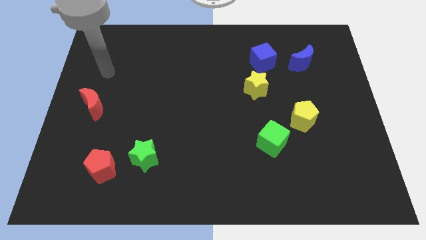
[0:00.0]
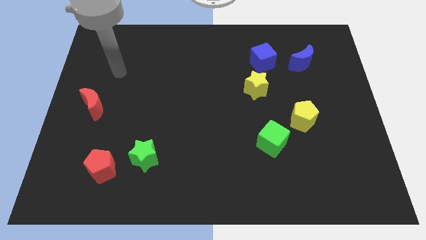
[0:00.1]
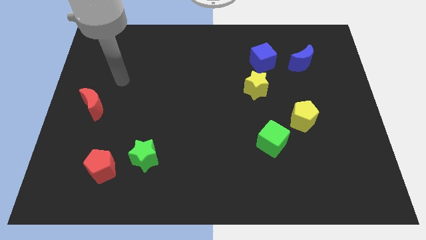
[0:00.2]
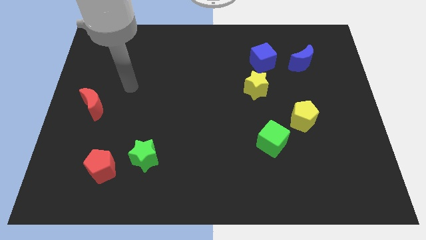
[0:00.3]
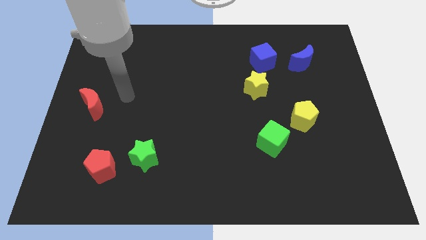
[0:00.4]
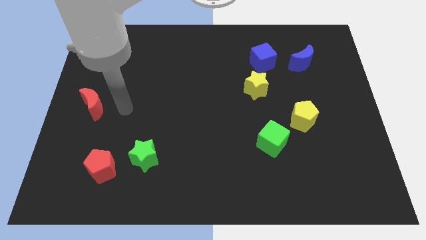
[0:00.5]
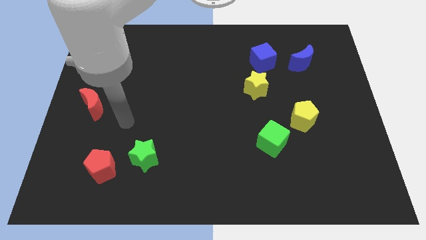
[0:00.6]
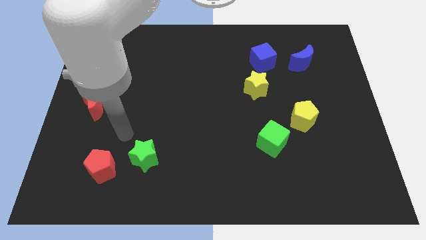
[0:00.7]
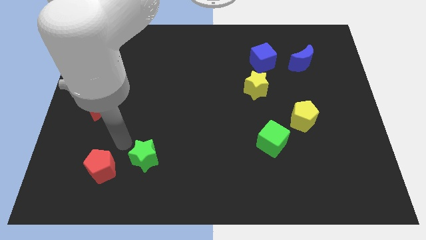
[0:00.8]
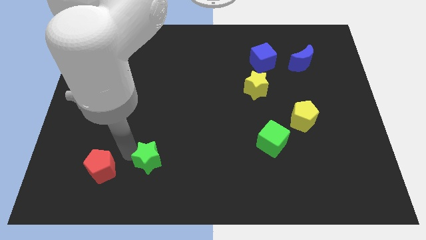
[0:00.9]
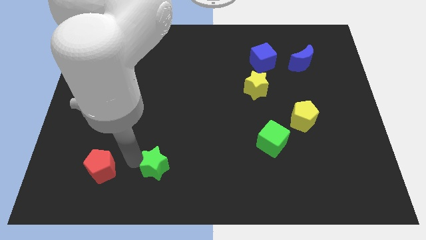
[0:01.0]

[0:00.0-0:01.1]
move the red pentagon away from the green star

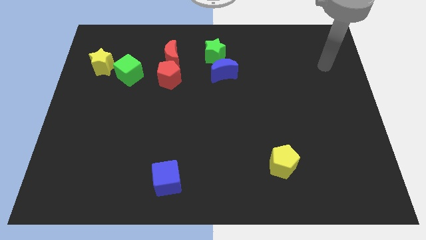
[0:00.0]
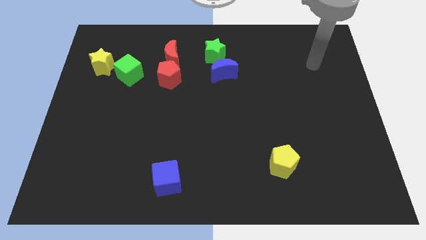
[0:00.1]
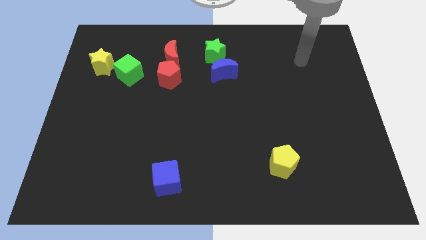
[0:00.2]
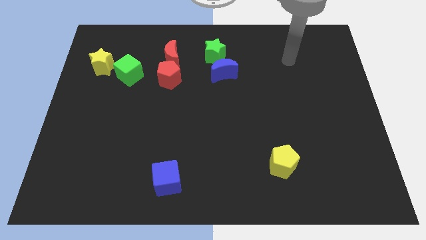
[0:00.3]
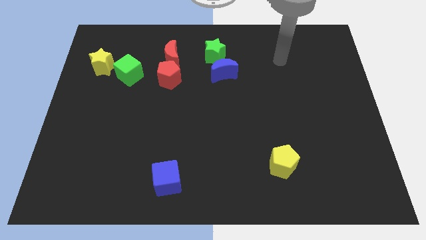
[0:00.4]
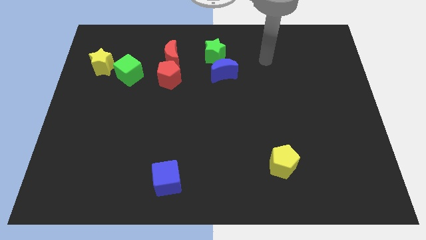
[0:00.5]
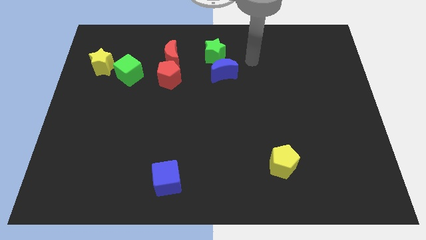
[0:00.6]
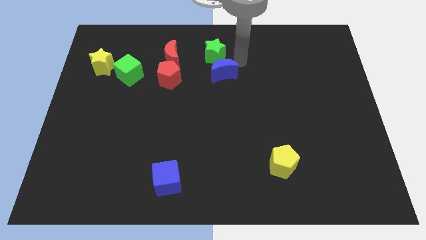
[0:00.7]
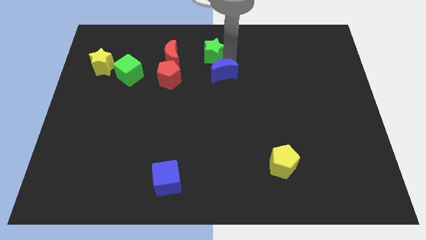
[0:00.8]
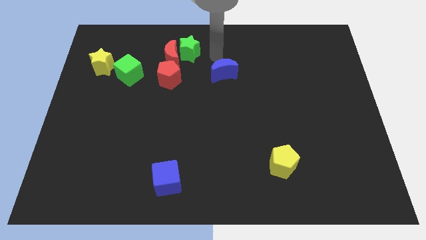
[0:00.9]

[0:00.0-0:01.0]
separate the blue moon from the green star

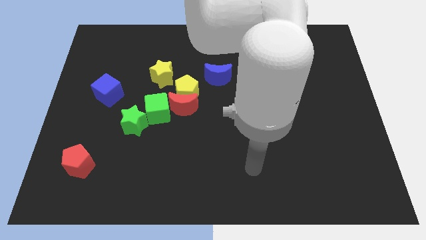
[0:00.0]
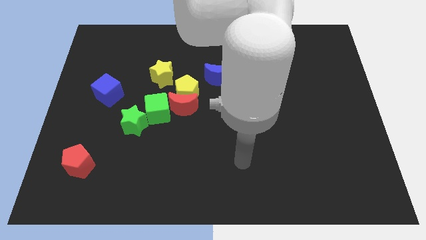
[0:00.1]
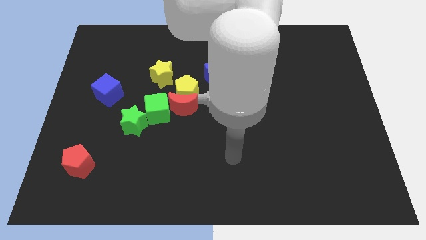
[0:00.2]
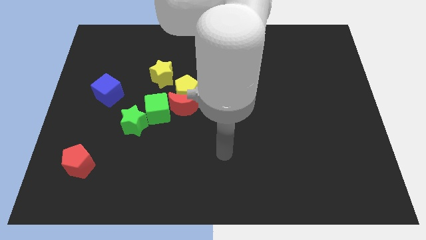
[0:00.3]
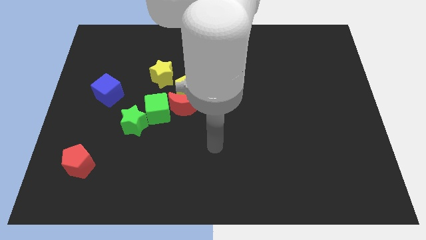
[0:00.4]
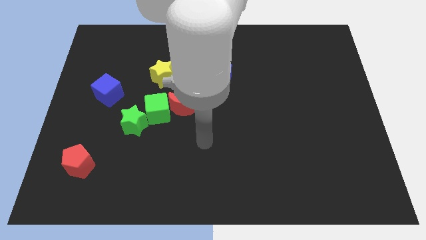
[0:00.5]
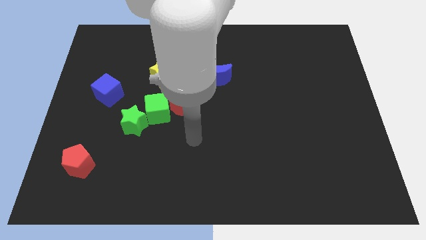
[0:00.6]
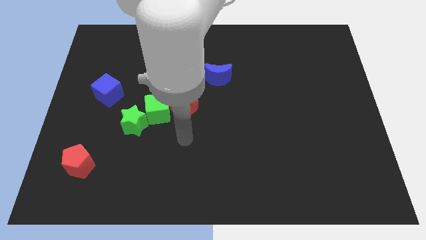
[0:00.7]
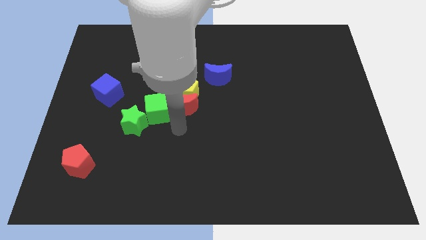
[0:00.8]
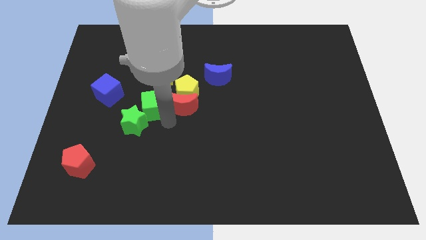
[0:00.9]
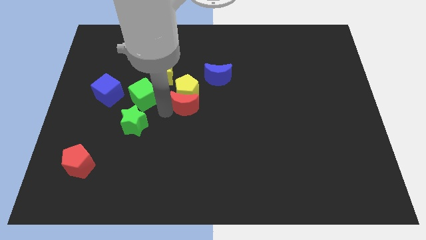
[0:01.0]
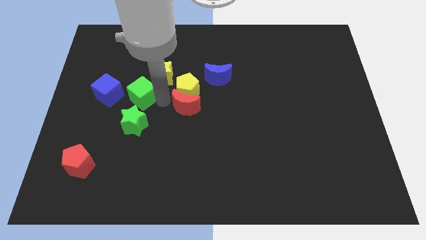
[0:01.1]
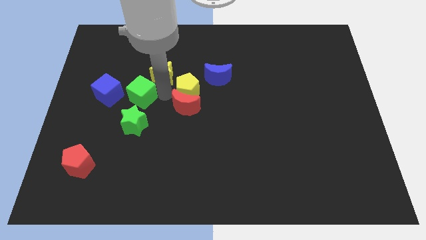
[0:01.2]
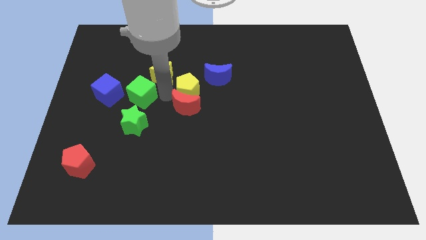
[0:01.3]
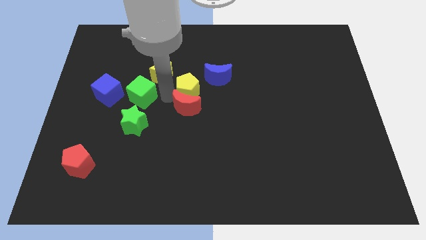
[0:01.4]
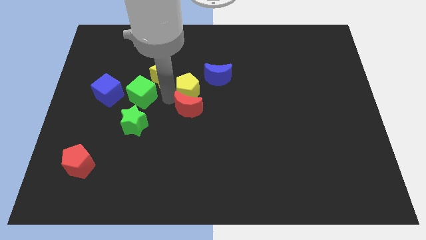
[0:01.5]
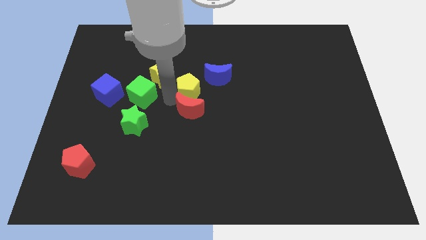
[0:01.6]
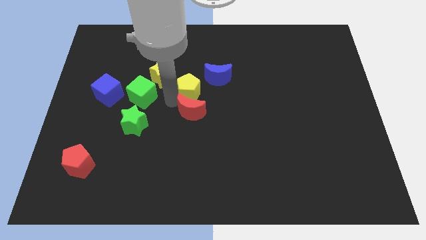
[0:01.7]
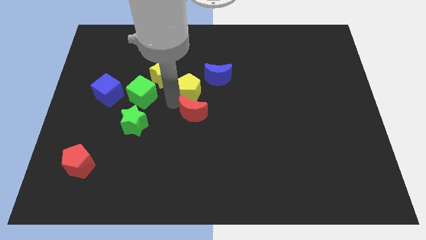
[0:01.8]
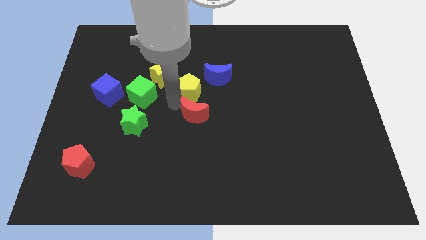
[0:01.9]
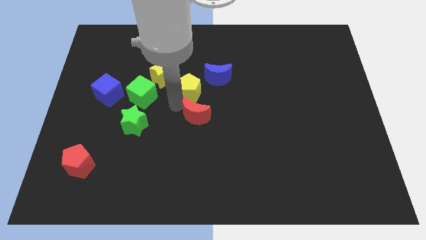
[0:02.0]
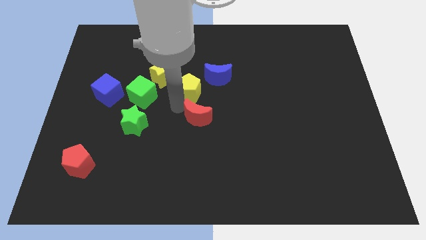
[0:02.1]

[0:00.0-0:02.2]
move the red moon away from the yellow pentagon and green cube

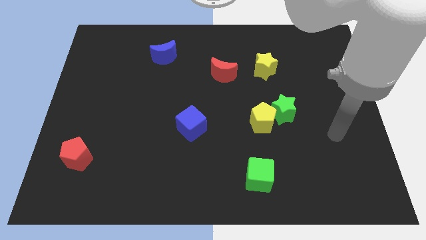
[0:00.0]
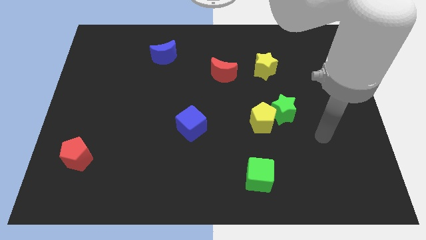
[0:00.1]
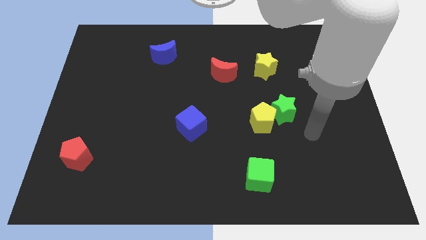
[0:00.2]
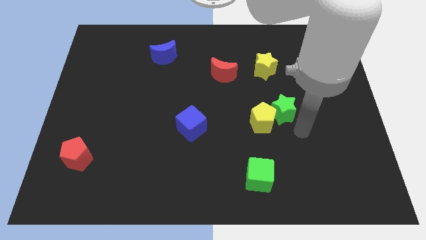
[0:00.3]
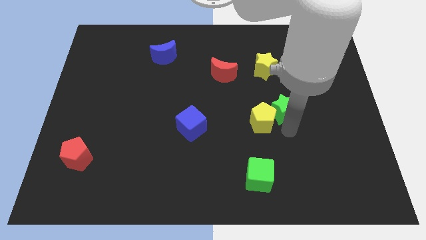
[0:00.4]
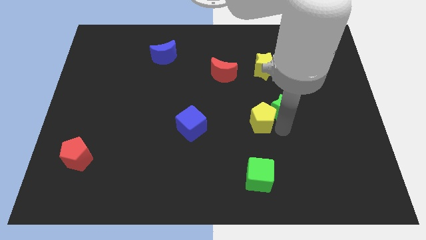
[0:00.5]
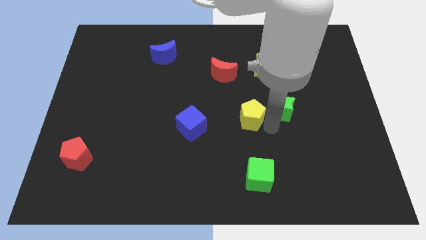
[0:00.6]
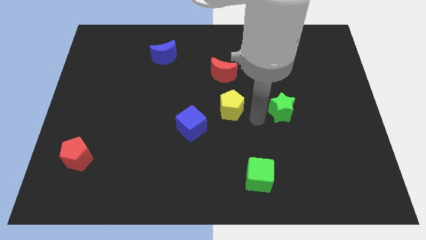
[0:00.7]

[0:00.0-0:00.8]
move the green star away from the yellow pentagon

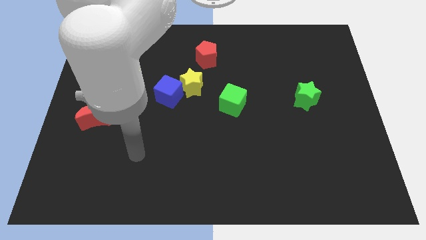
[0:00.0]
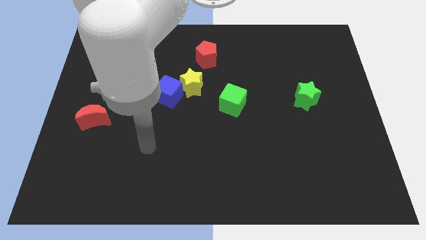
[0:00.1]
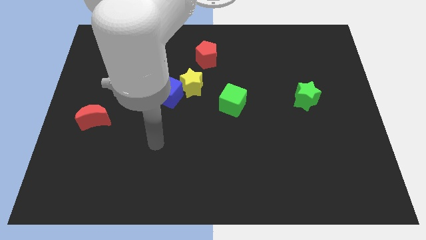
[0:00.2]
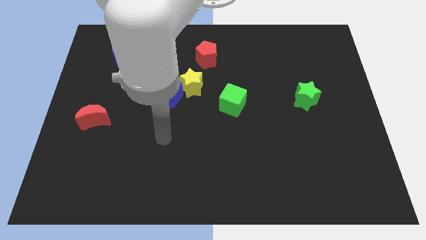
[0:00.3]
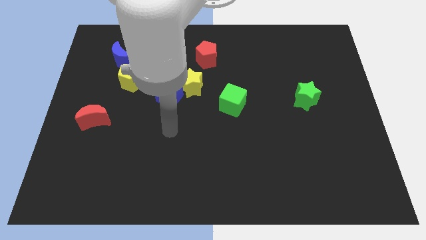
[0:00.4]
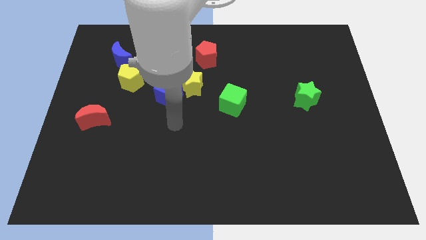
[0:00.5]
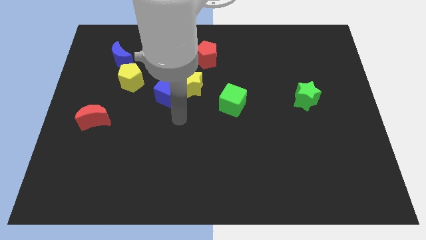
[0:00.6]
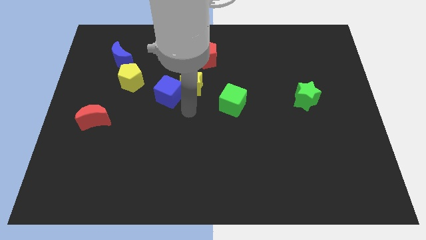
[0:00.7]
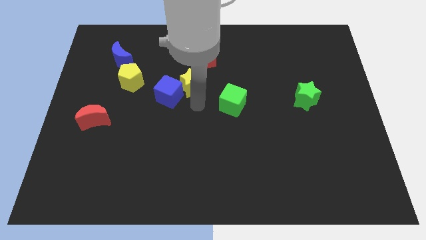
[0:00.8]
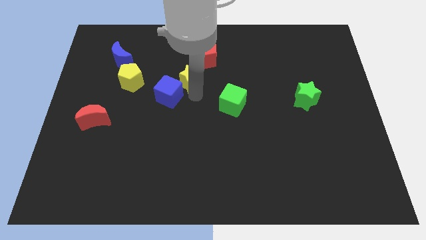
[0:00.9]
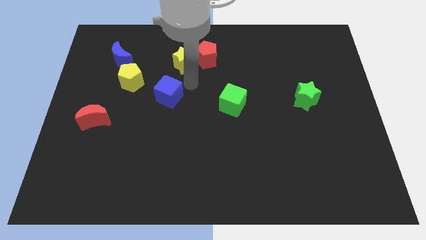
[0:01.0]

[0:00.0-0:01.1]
move the blue cube away from the yellow star

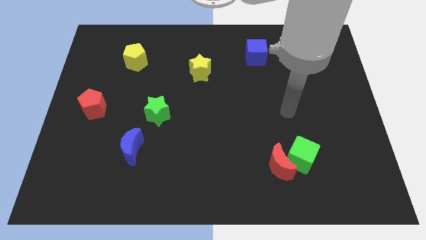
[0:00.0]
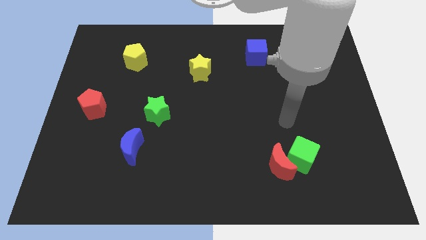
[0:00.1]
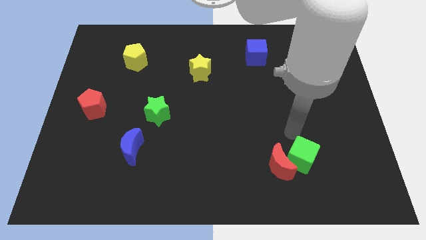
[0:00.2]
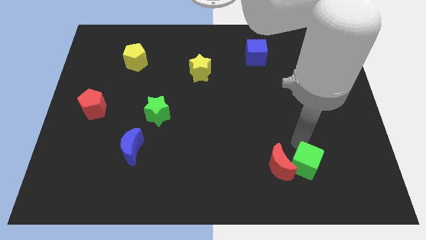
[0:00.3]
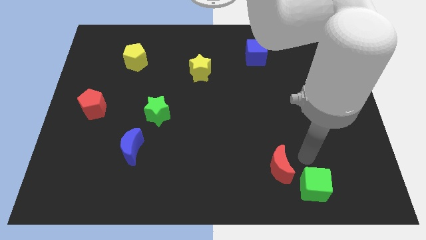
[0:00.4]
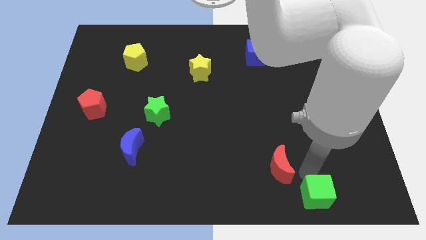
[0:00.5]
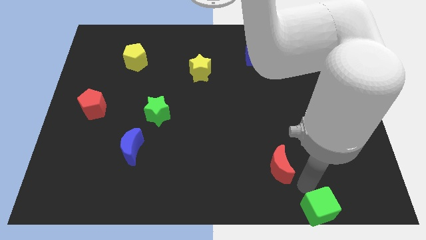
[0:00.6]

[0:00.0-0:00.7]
pull the red moon apart from the green cube

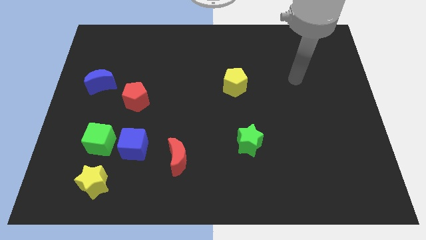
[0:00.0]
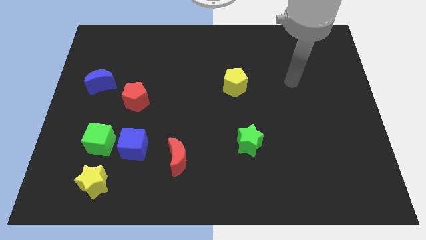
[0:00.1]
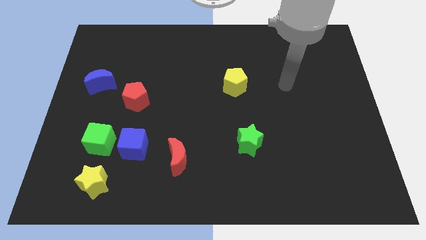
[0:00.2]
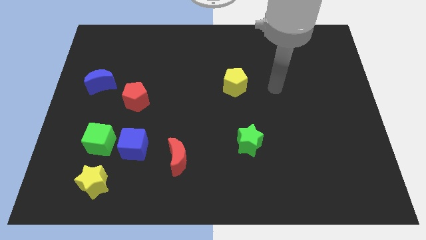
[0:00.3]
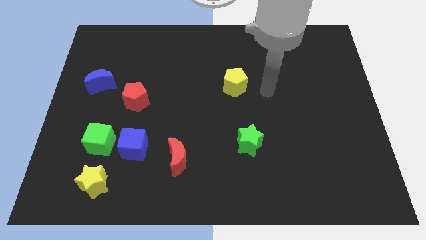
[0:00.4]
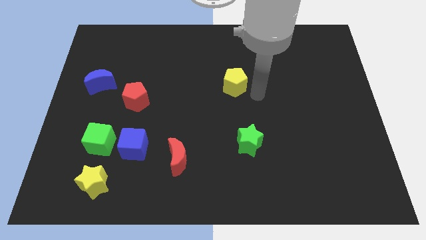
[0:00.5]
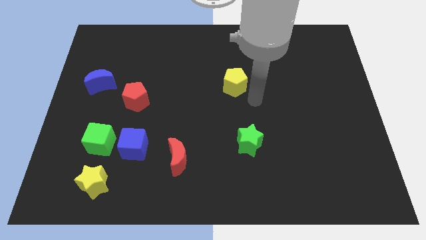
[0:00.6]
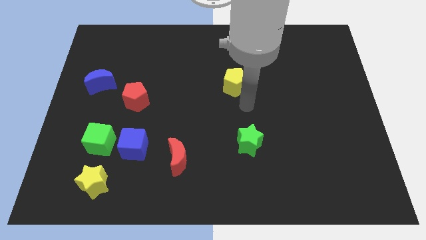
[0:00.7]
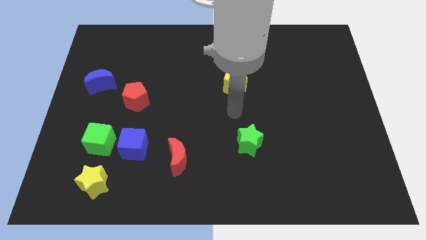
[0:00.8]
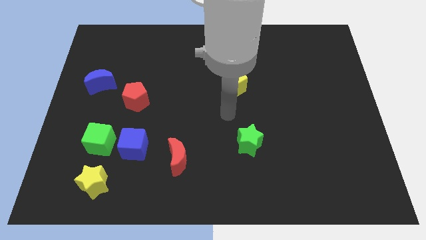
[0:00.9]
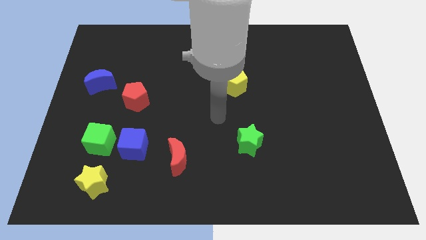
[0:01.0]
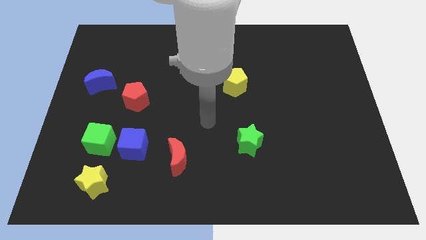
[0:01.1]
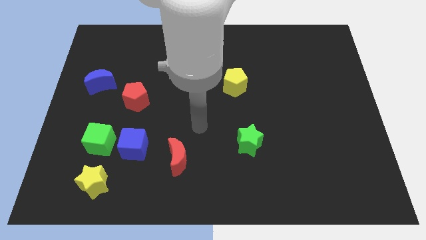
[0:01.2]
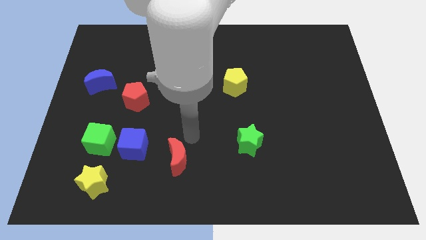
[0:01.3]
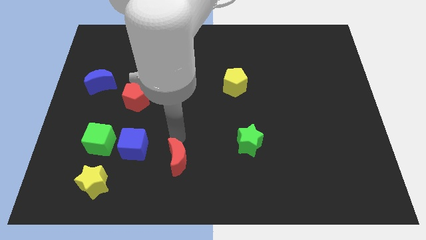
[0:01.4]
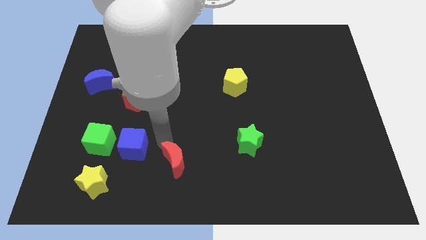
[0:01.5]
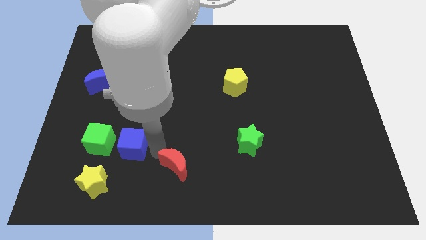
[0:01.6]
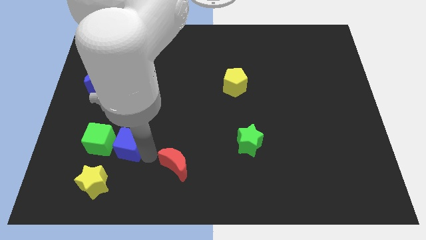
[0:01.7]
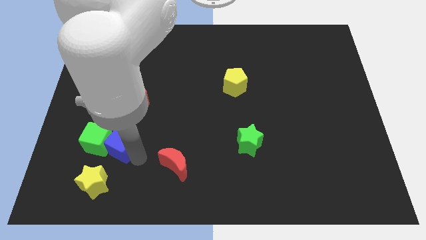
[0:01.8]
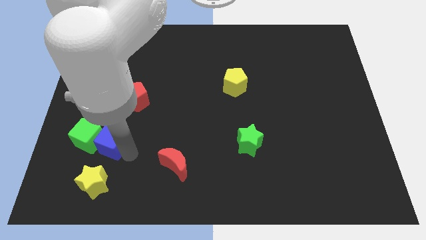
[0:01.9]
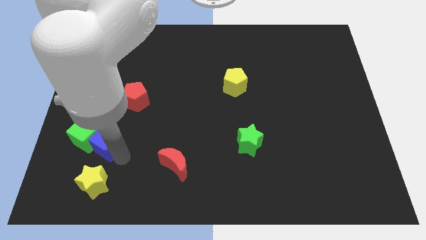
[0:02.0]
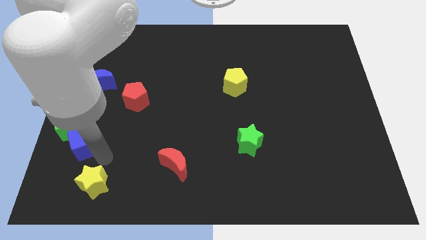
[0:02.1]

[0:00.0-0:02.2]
pull the green cube apart from the blue cube and yellow star

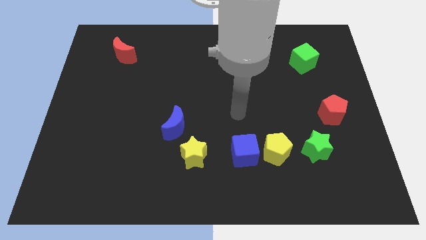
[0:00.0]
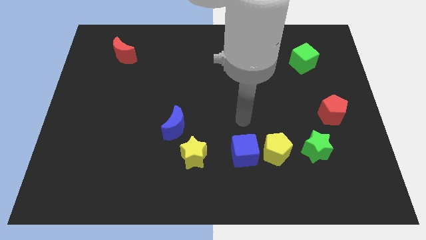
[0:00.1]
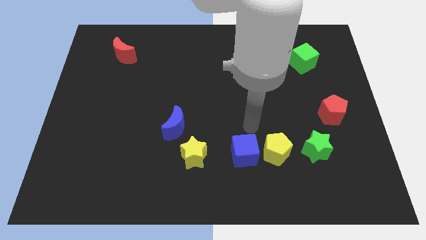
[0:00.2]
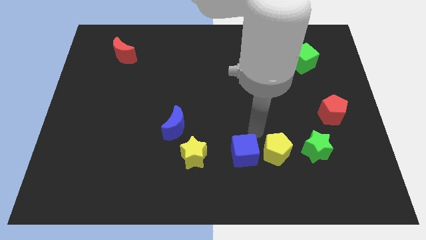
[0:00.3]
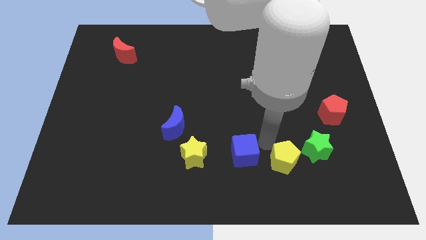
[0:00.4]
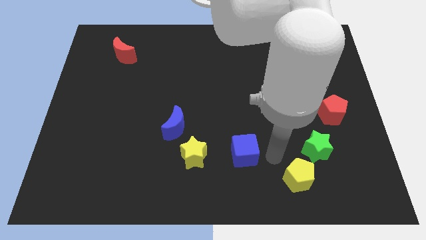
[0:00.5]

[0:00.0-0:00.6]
pull the blue cube apart from the yellow pentagon
